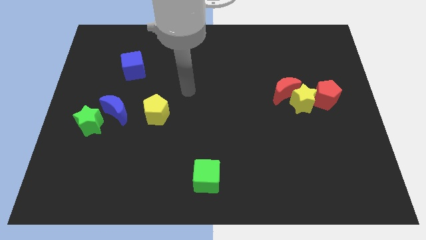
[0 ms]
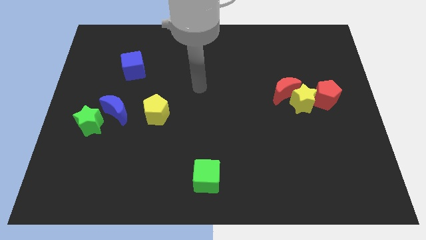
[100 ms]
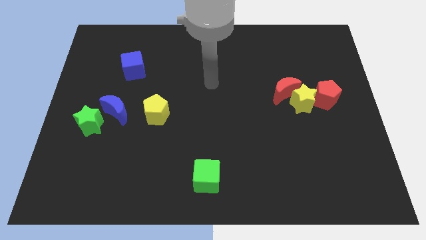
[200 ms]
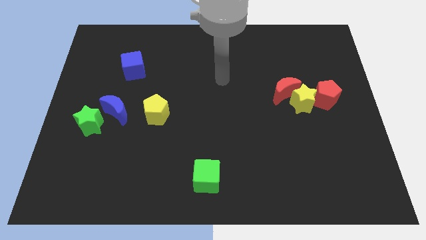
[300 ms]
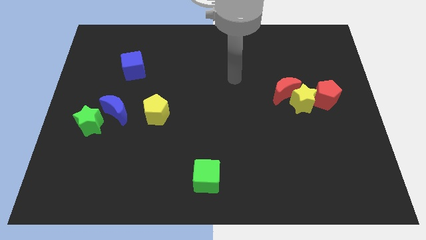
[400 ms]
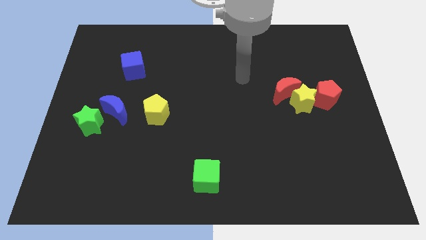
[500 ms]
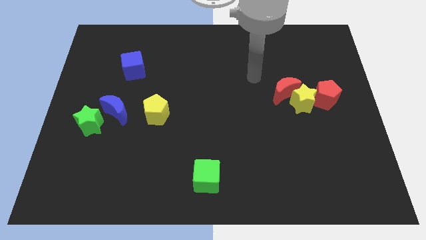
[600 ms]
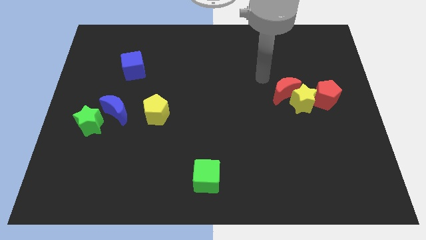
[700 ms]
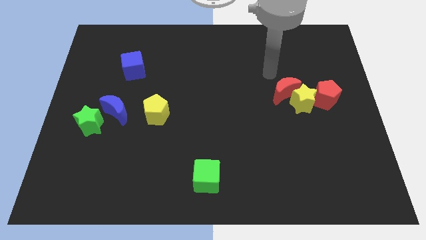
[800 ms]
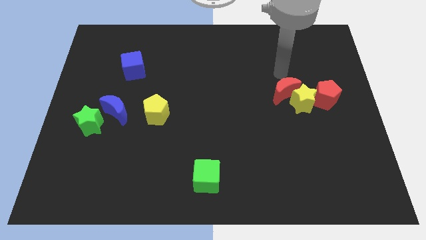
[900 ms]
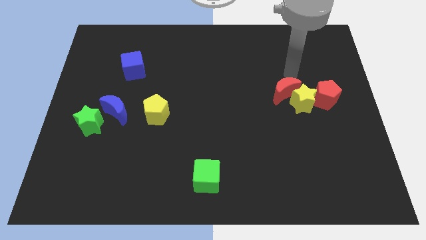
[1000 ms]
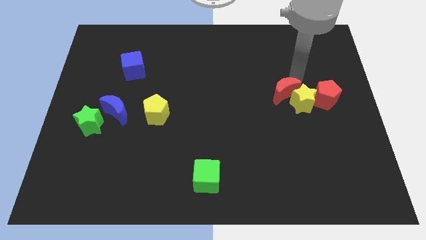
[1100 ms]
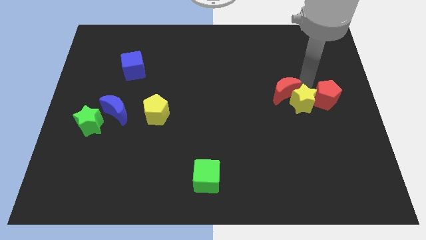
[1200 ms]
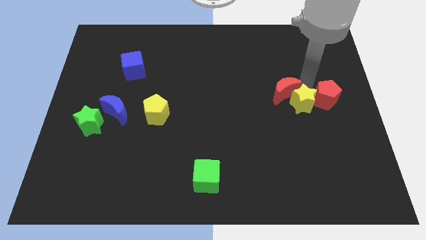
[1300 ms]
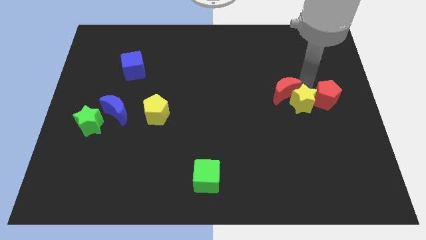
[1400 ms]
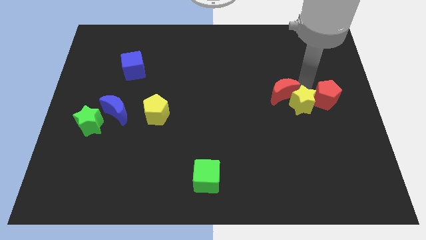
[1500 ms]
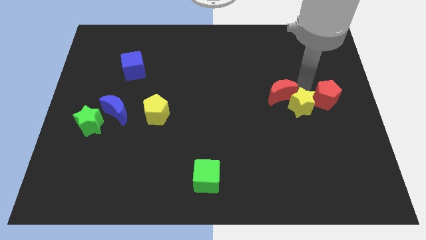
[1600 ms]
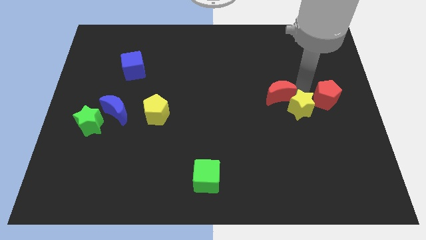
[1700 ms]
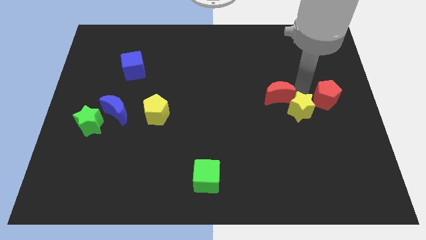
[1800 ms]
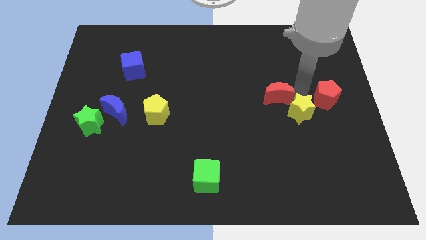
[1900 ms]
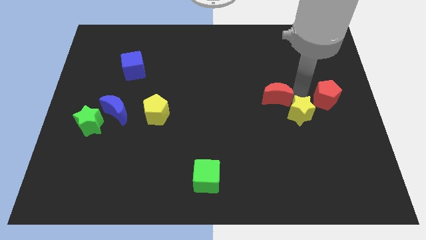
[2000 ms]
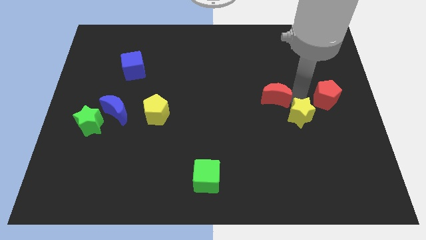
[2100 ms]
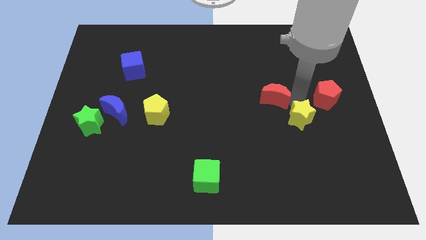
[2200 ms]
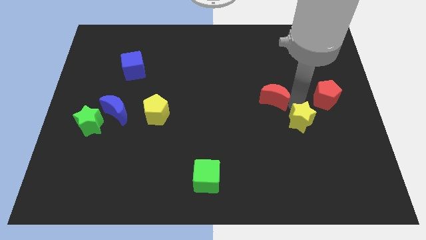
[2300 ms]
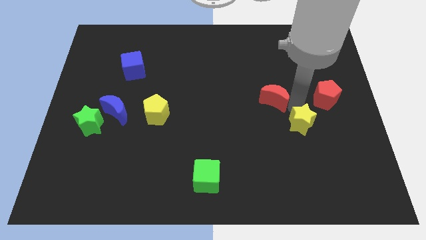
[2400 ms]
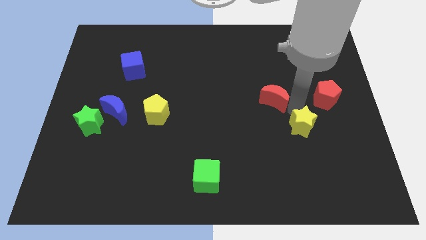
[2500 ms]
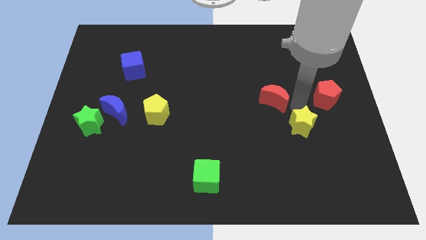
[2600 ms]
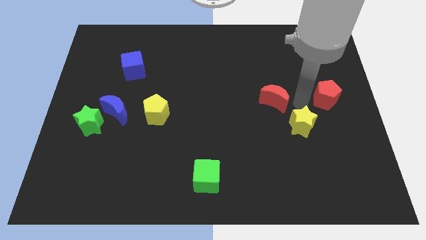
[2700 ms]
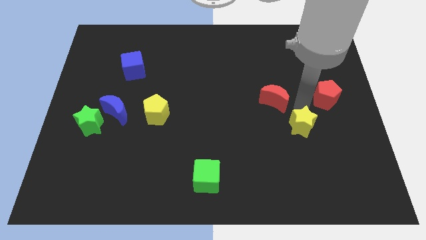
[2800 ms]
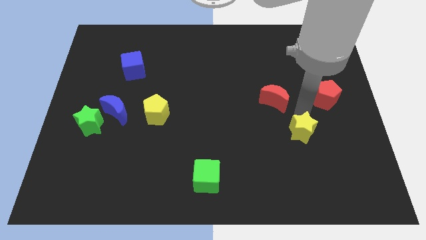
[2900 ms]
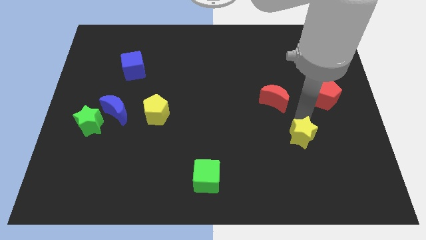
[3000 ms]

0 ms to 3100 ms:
pull the yellow star apart from the red moon and red pentagon

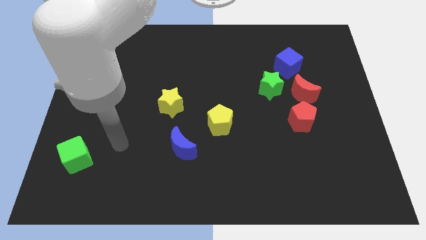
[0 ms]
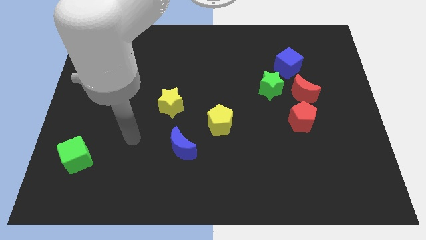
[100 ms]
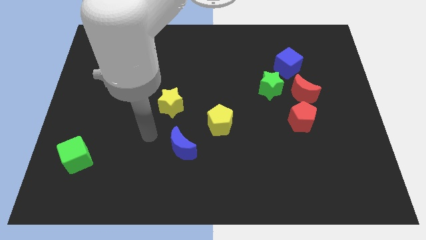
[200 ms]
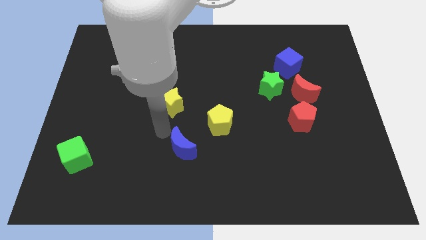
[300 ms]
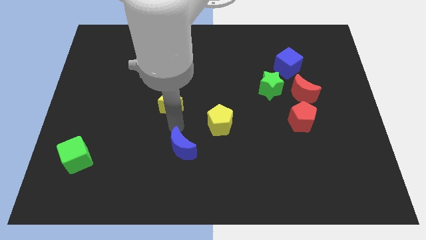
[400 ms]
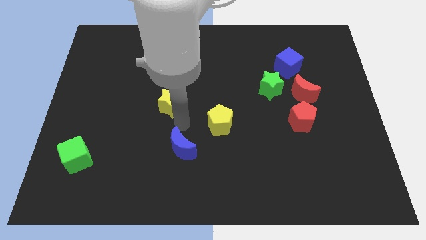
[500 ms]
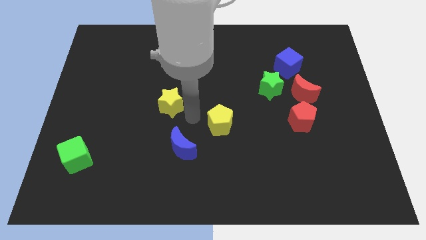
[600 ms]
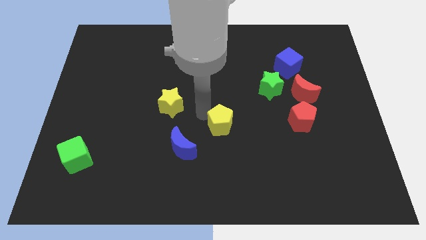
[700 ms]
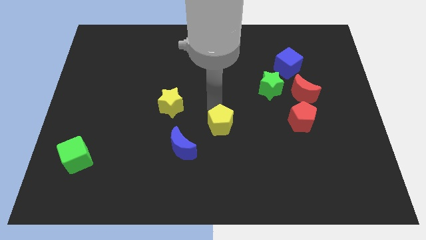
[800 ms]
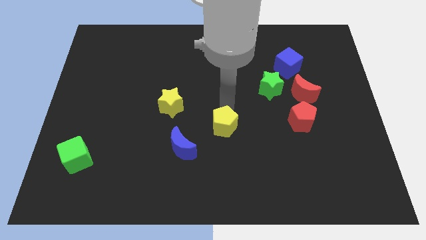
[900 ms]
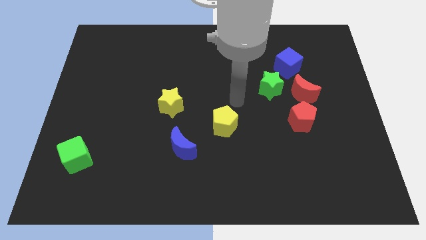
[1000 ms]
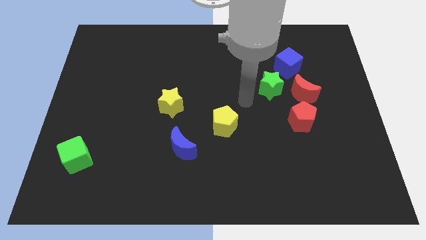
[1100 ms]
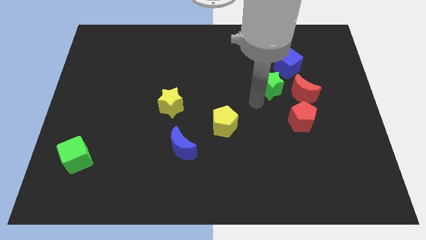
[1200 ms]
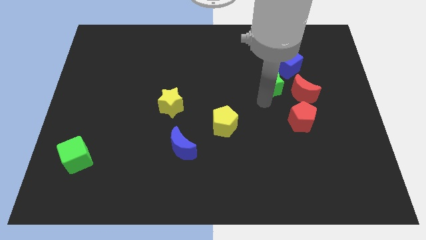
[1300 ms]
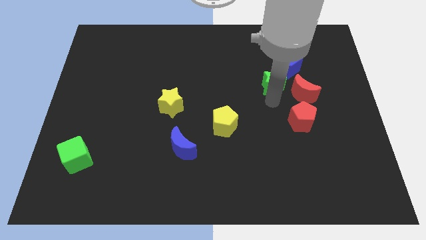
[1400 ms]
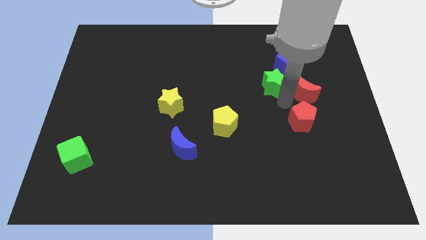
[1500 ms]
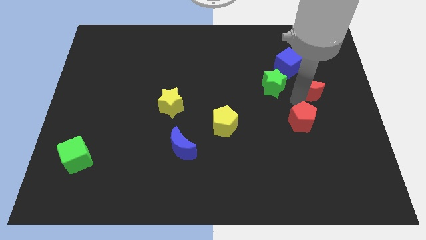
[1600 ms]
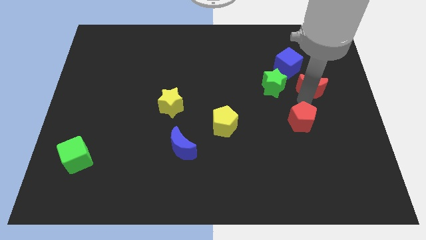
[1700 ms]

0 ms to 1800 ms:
pull the red pentagon apart from the red moon

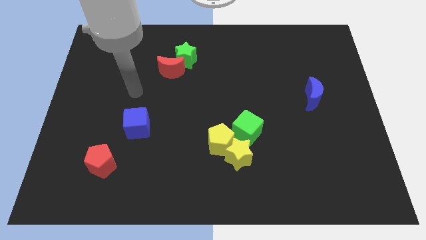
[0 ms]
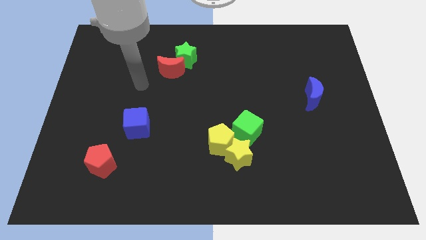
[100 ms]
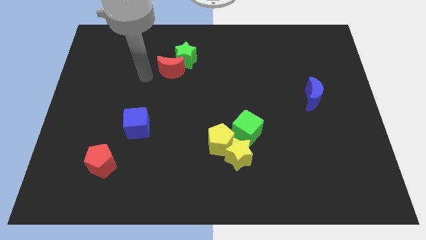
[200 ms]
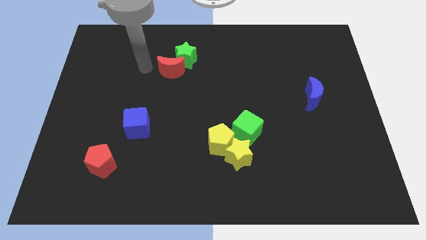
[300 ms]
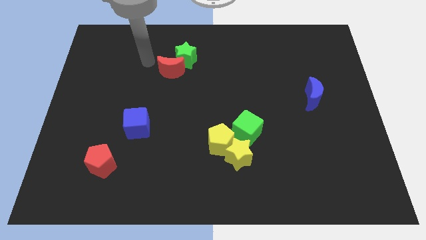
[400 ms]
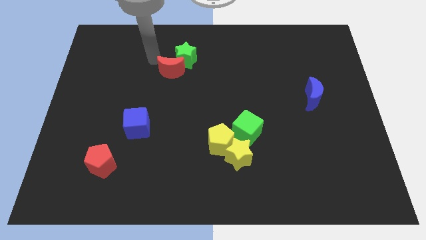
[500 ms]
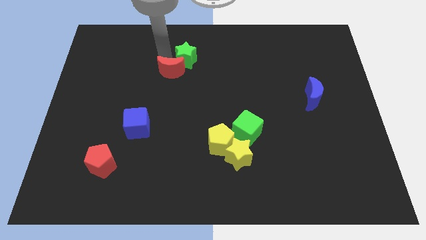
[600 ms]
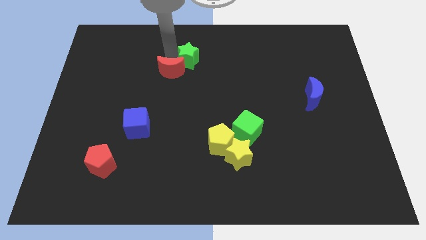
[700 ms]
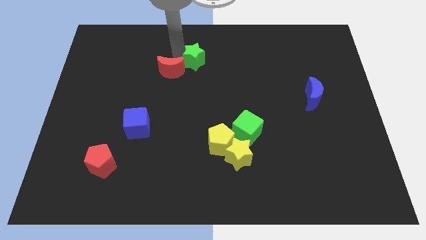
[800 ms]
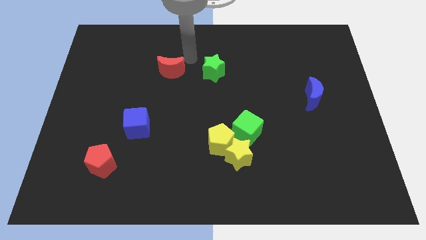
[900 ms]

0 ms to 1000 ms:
pull the red moon apart from the green star

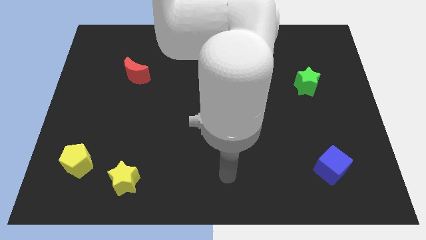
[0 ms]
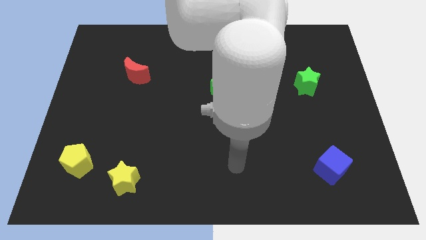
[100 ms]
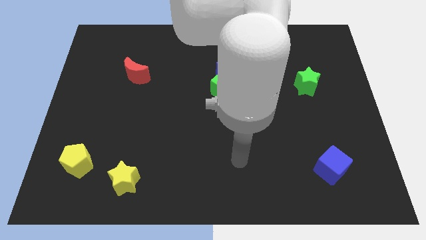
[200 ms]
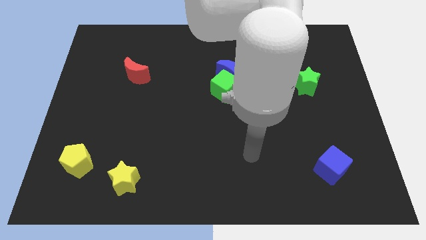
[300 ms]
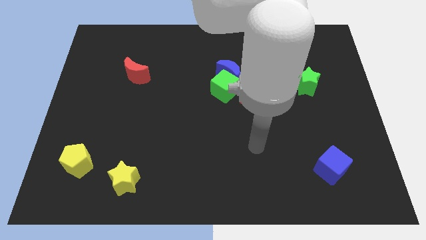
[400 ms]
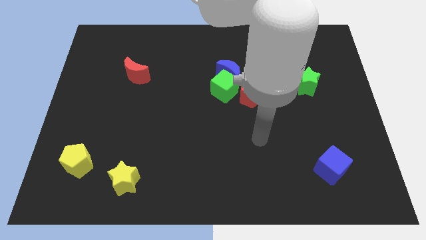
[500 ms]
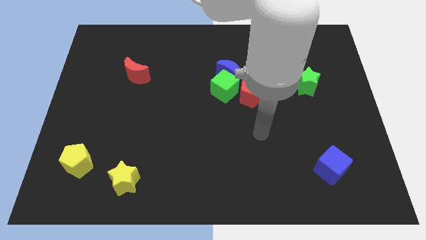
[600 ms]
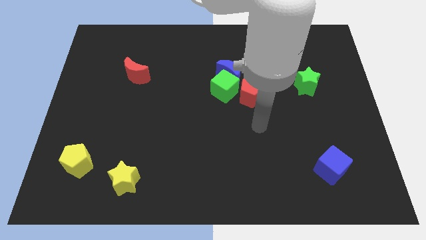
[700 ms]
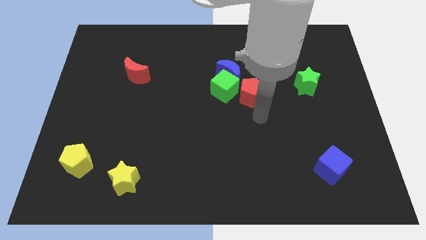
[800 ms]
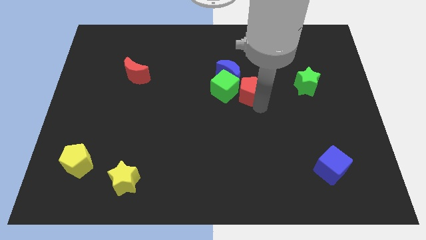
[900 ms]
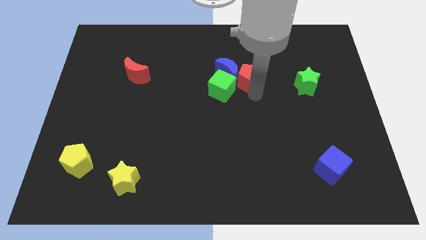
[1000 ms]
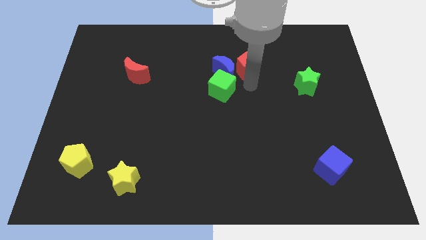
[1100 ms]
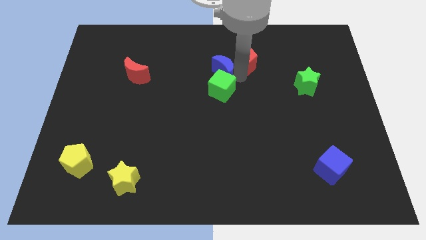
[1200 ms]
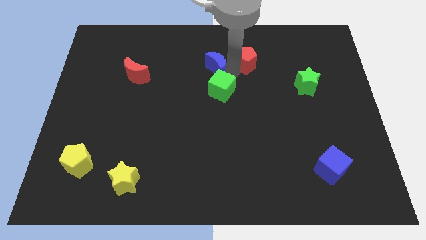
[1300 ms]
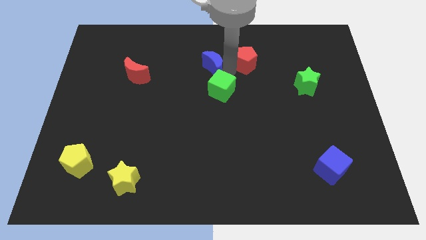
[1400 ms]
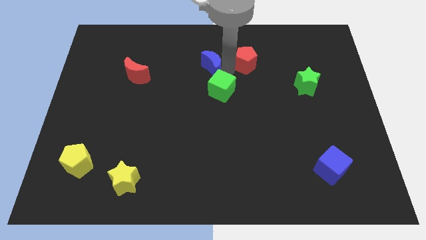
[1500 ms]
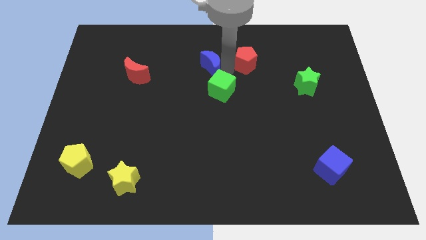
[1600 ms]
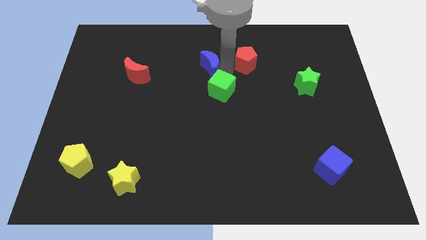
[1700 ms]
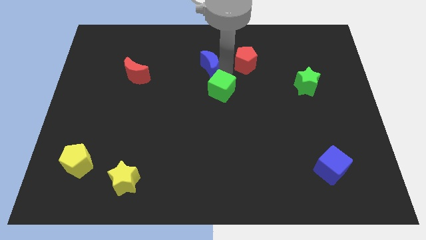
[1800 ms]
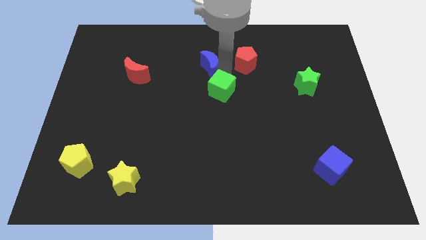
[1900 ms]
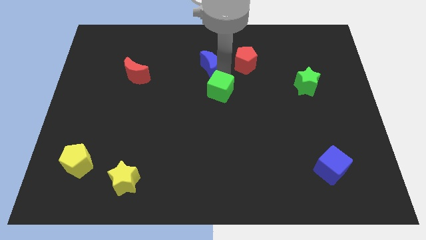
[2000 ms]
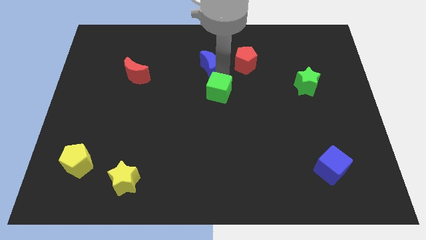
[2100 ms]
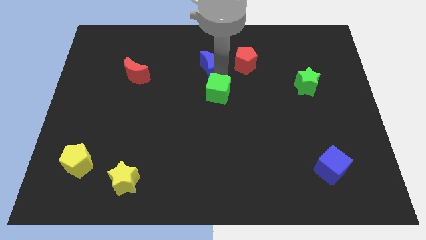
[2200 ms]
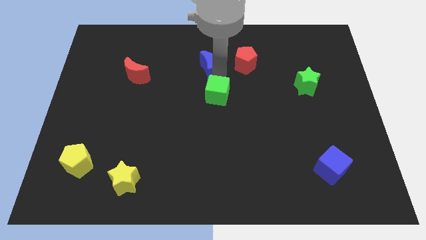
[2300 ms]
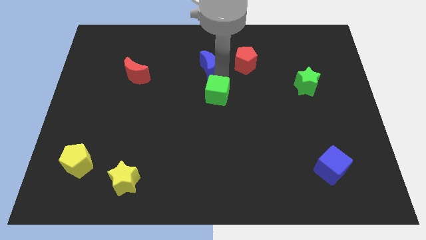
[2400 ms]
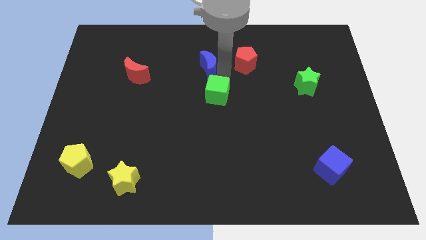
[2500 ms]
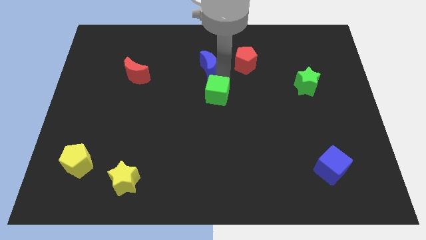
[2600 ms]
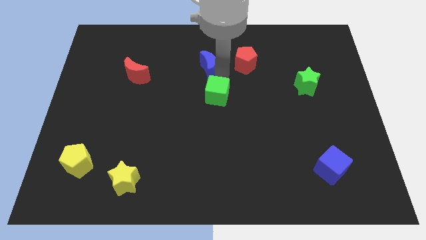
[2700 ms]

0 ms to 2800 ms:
pull the green cube apart from the blue moon and red pentagon

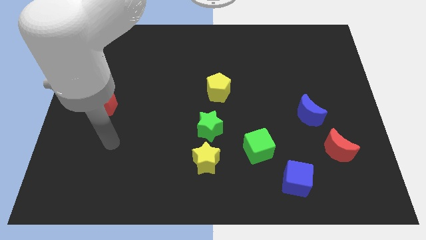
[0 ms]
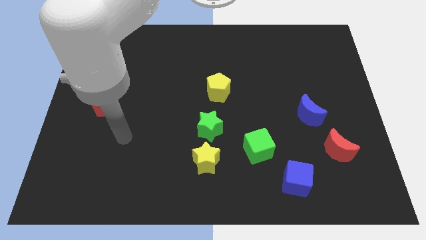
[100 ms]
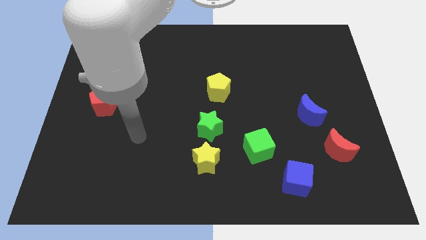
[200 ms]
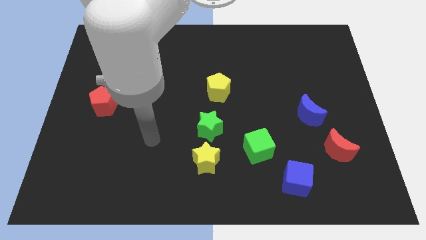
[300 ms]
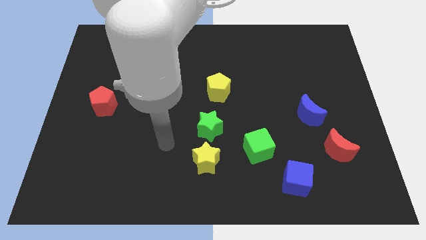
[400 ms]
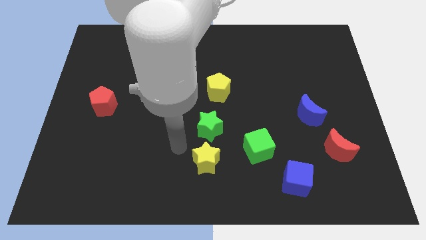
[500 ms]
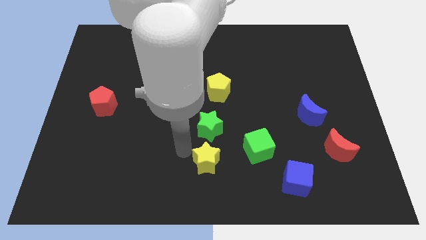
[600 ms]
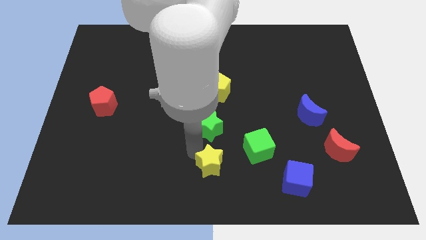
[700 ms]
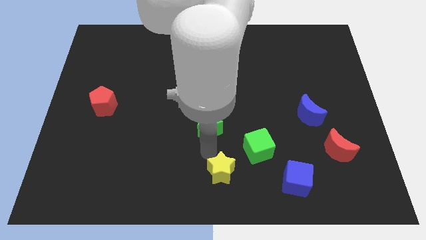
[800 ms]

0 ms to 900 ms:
move the green star away from the yellow star
